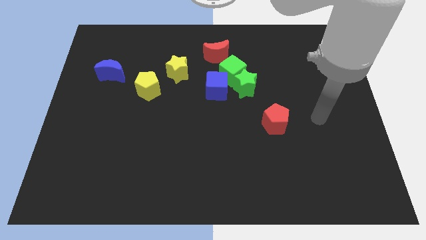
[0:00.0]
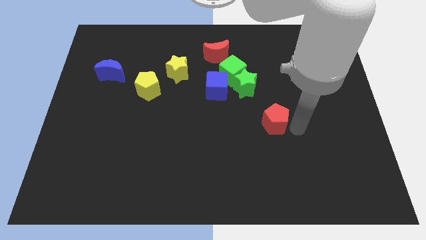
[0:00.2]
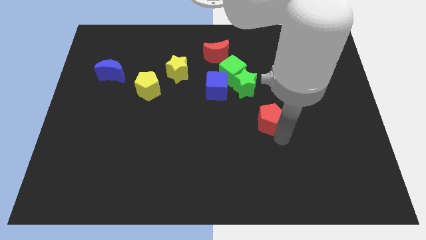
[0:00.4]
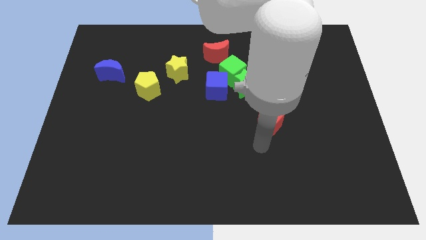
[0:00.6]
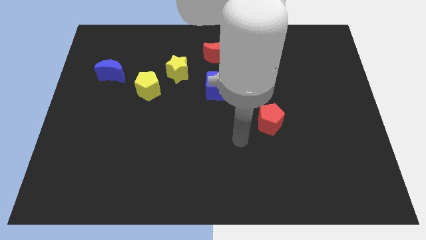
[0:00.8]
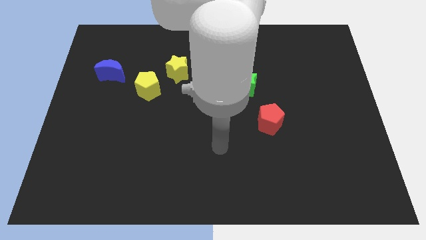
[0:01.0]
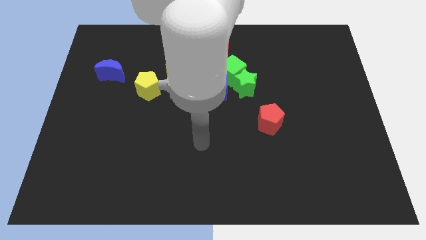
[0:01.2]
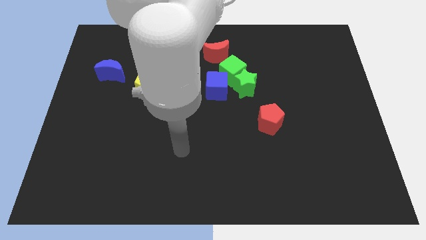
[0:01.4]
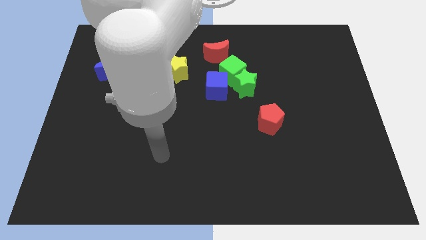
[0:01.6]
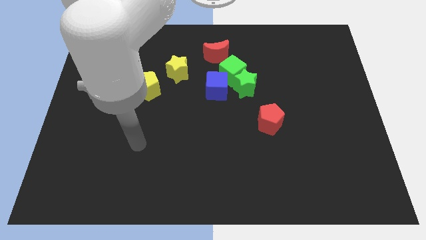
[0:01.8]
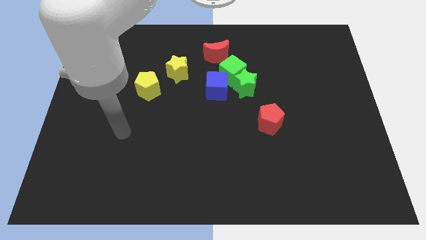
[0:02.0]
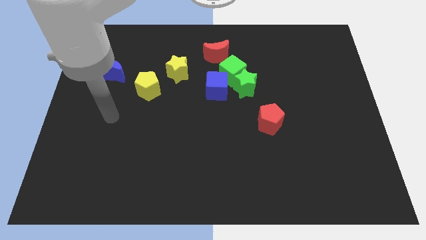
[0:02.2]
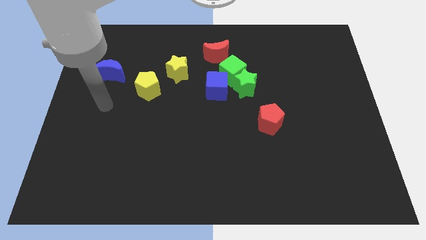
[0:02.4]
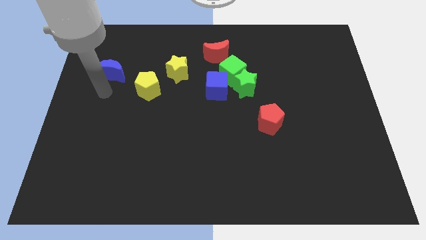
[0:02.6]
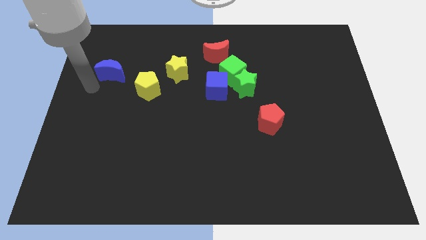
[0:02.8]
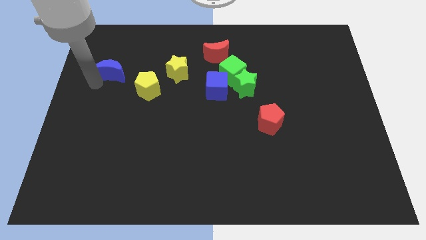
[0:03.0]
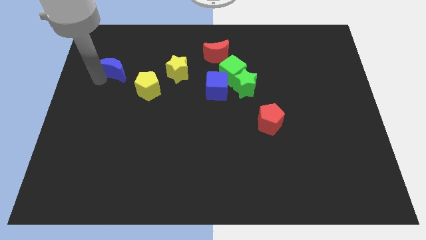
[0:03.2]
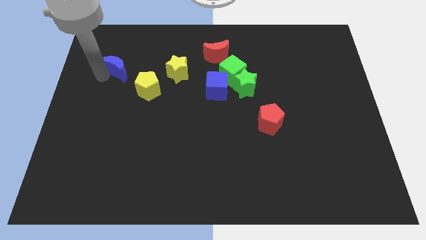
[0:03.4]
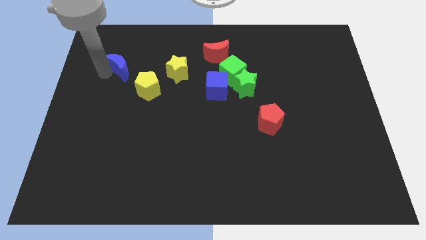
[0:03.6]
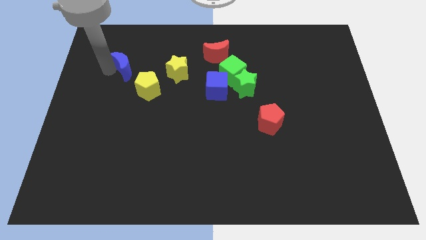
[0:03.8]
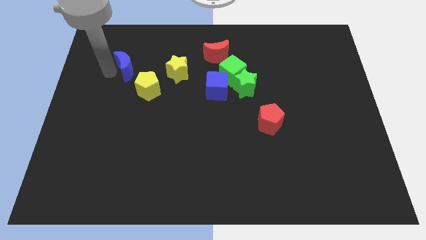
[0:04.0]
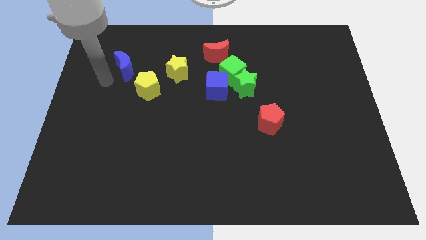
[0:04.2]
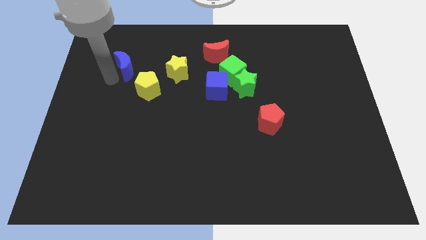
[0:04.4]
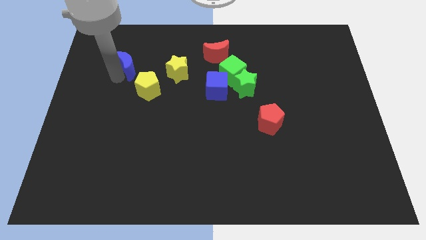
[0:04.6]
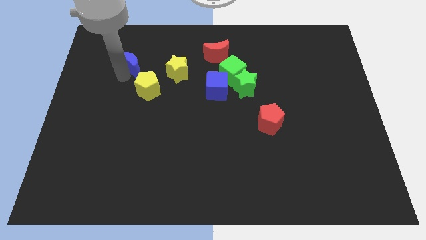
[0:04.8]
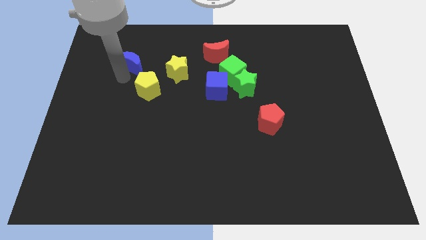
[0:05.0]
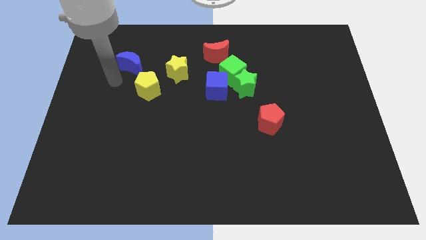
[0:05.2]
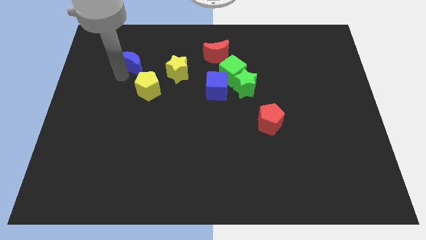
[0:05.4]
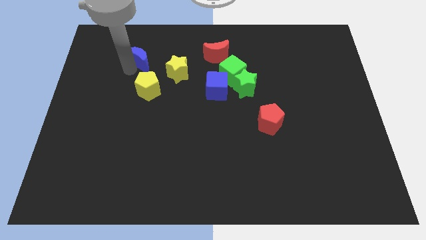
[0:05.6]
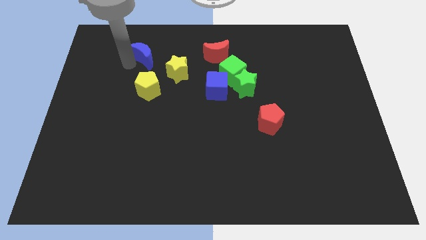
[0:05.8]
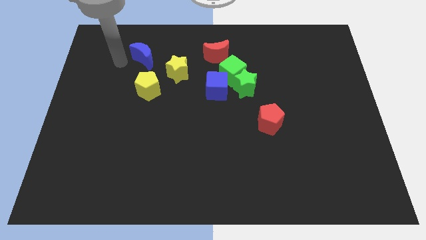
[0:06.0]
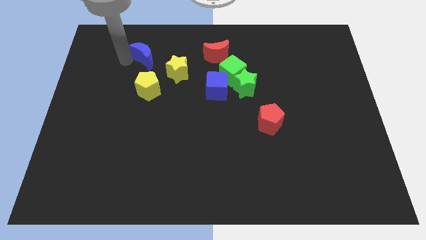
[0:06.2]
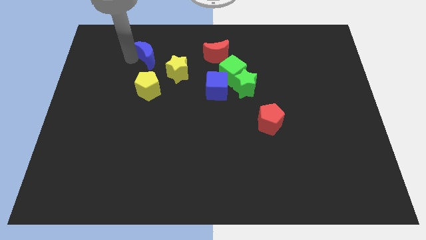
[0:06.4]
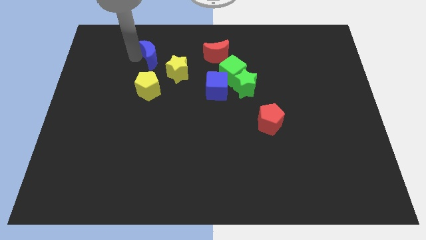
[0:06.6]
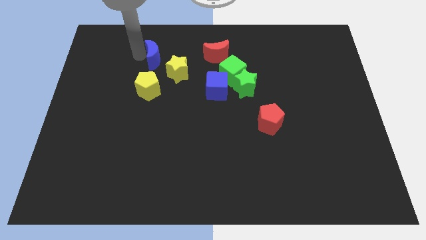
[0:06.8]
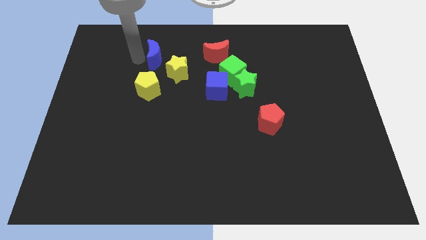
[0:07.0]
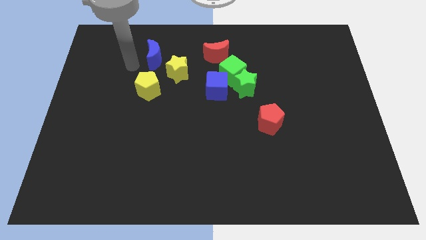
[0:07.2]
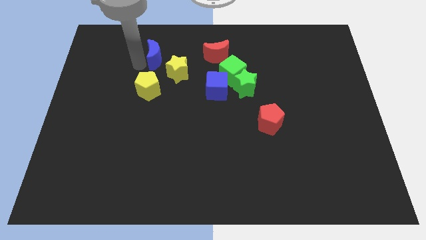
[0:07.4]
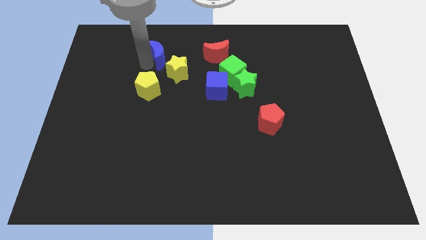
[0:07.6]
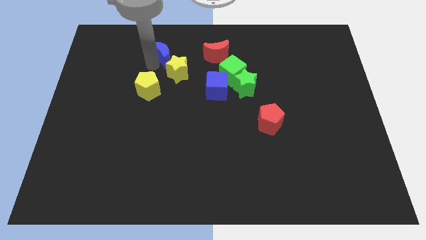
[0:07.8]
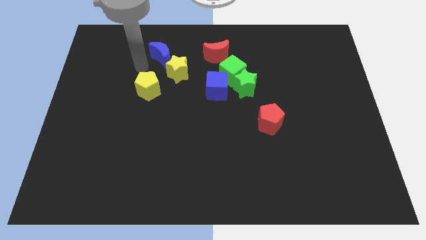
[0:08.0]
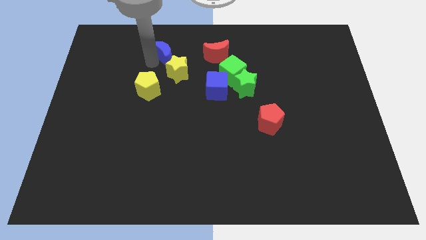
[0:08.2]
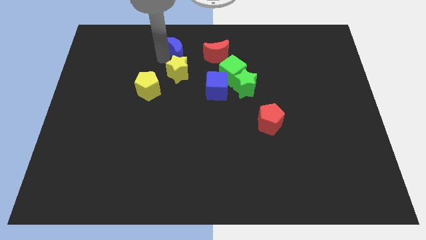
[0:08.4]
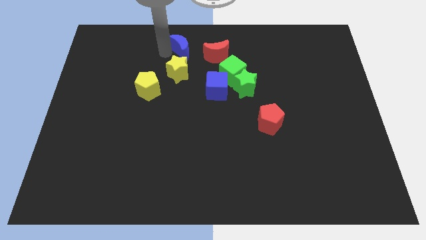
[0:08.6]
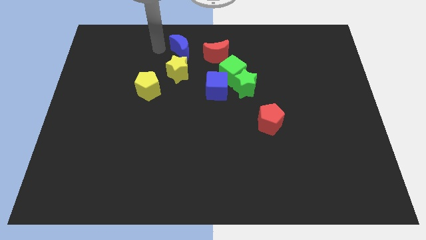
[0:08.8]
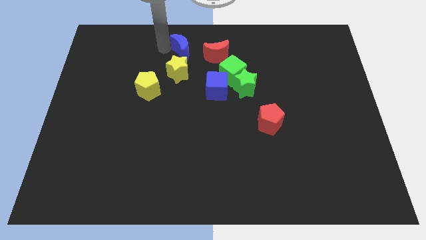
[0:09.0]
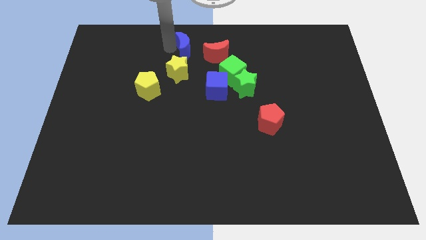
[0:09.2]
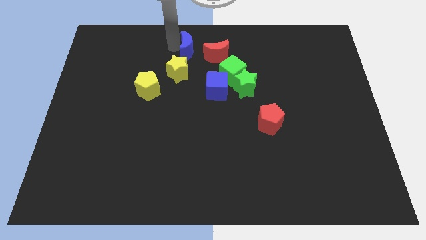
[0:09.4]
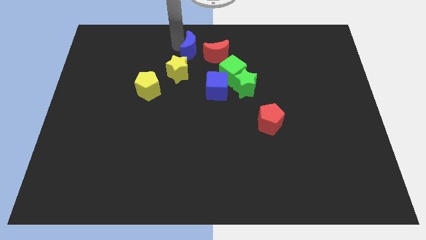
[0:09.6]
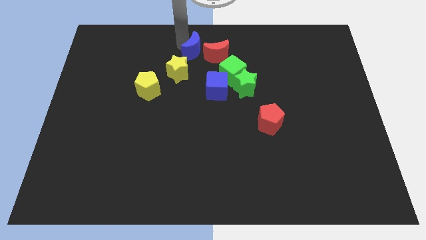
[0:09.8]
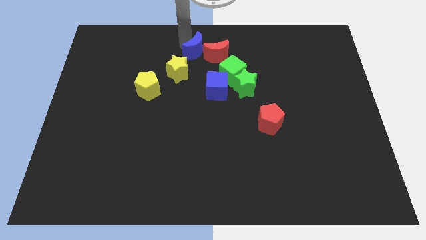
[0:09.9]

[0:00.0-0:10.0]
push the blue moon to the top left of the green cube

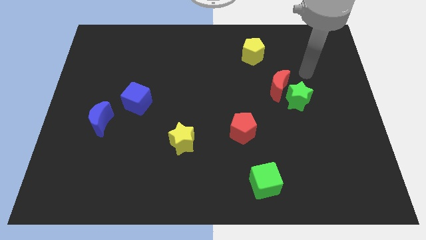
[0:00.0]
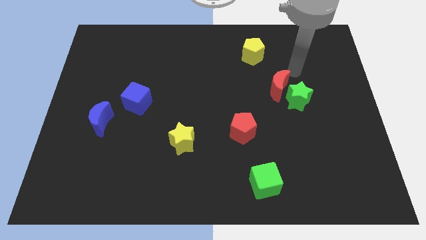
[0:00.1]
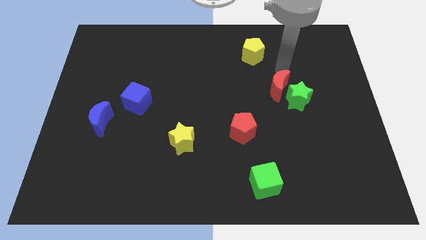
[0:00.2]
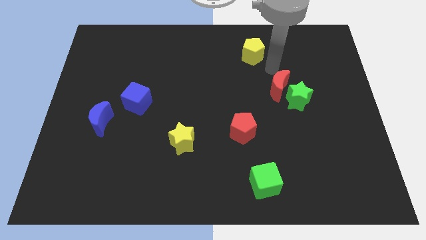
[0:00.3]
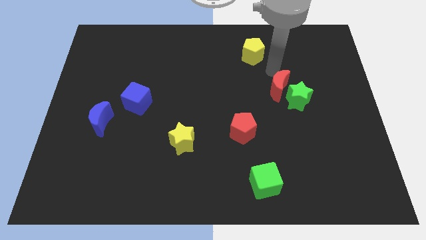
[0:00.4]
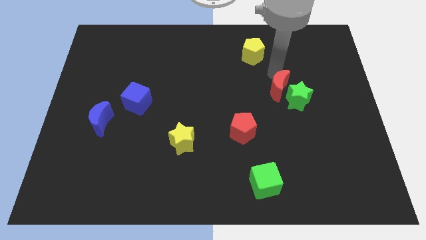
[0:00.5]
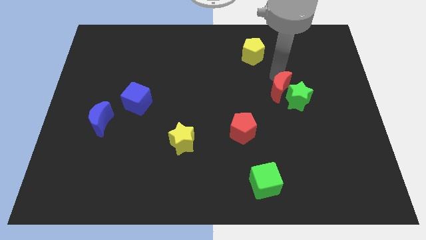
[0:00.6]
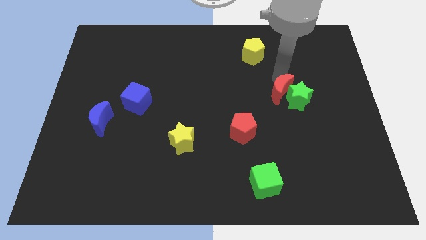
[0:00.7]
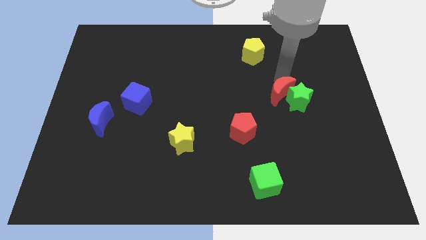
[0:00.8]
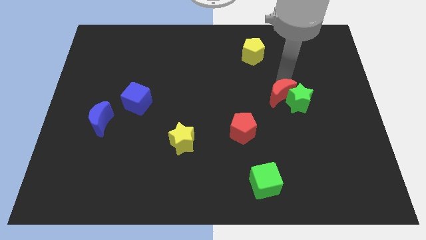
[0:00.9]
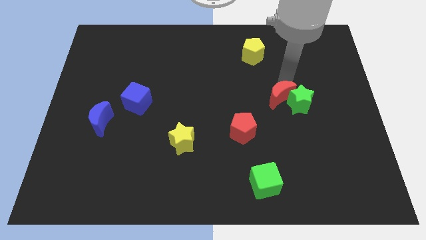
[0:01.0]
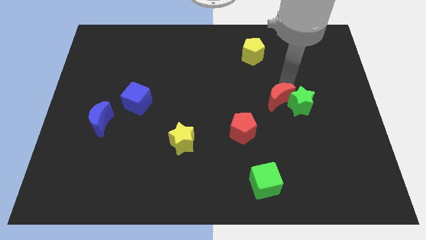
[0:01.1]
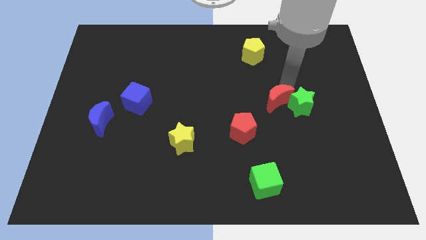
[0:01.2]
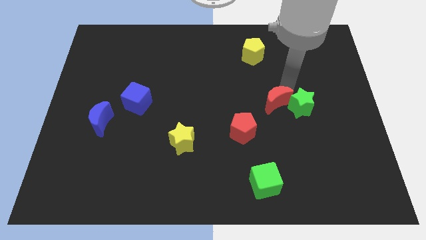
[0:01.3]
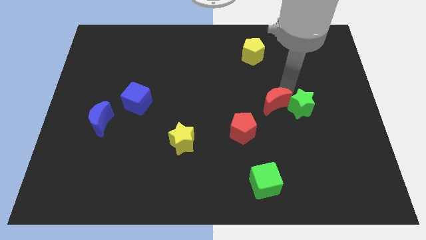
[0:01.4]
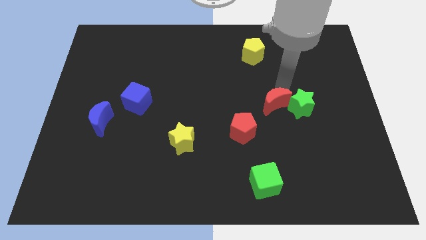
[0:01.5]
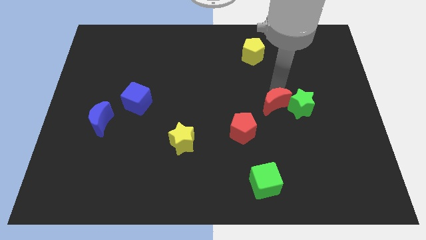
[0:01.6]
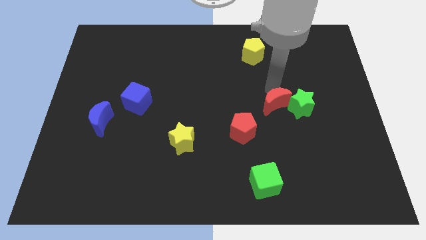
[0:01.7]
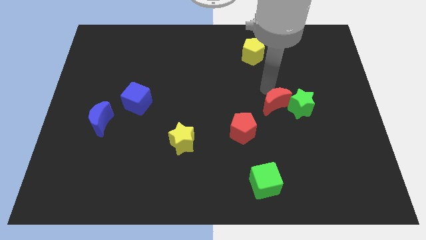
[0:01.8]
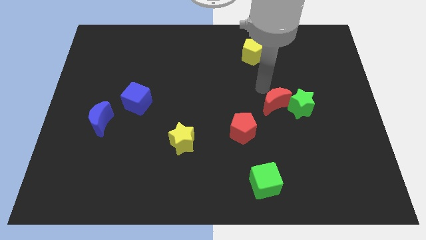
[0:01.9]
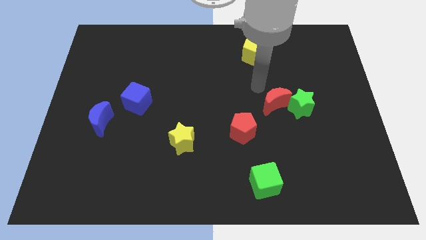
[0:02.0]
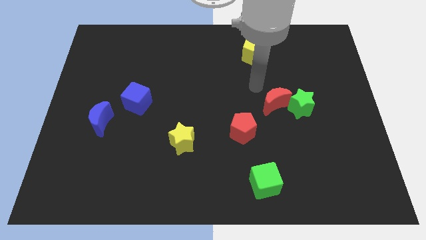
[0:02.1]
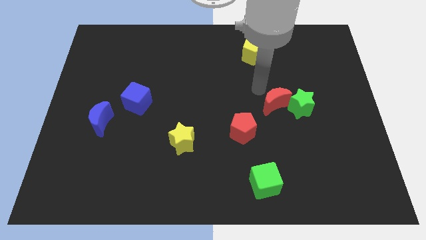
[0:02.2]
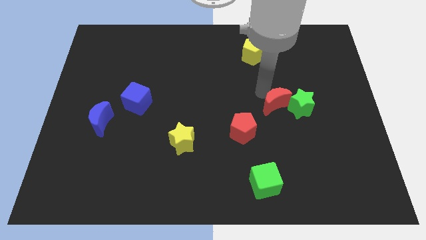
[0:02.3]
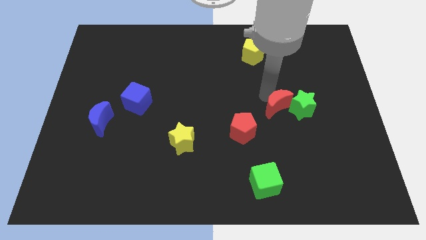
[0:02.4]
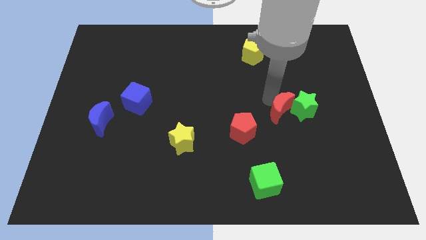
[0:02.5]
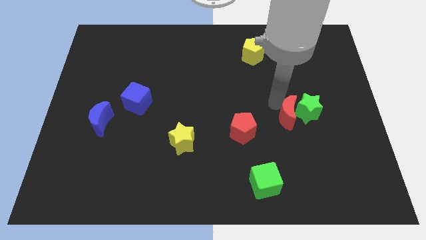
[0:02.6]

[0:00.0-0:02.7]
push the red moon right of the red pentagon
